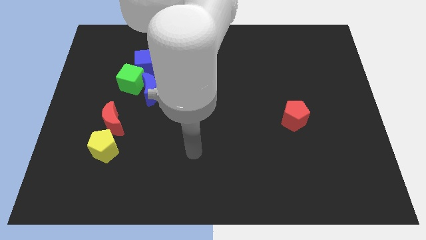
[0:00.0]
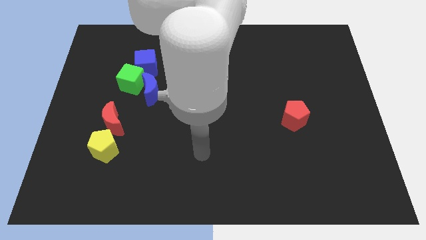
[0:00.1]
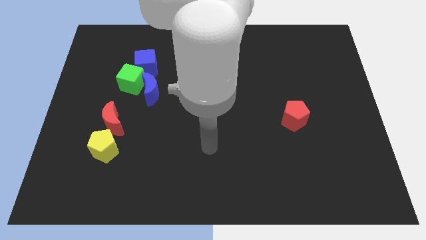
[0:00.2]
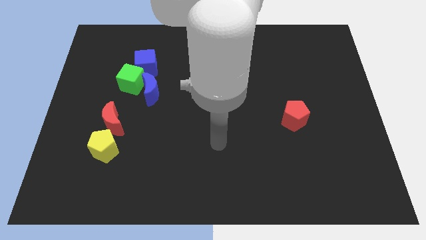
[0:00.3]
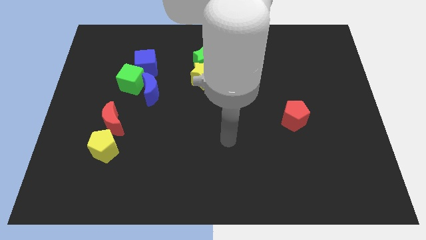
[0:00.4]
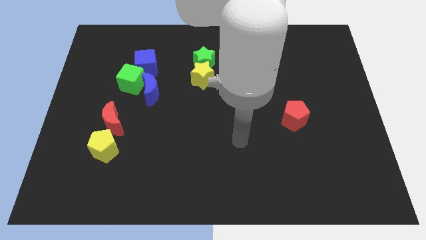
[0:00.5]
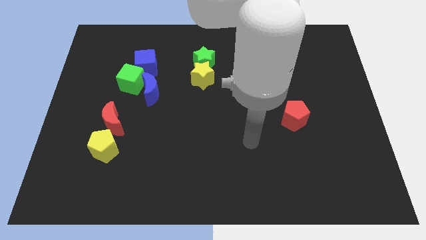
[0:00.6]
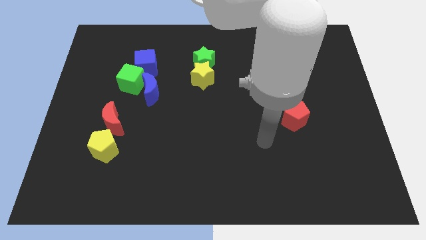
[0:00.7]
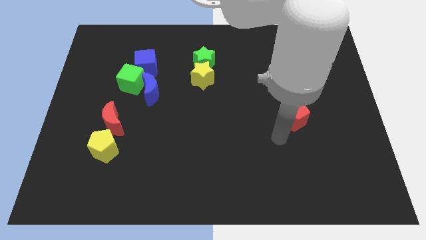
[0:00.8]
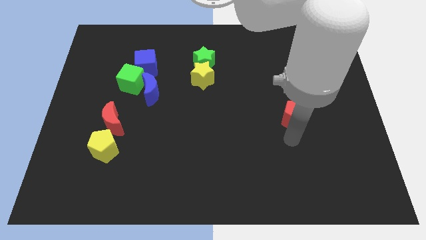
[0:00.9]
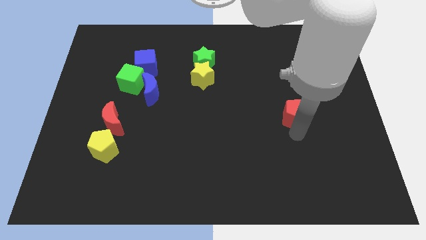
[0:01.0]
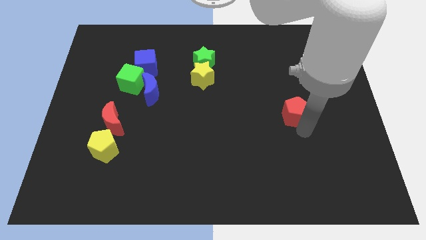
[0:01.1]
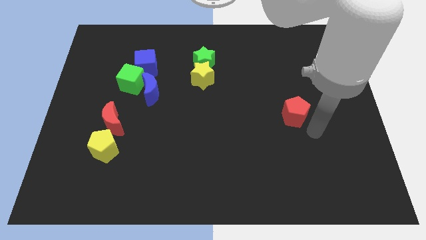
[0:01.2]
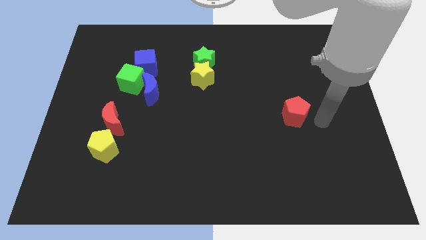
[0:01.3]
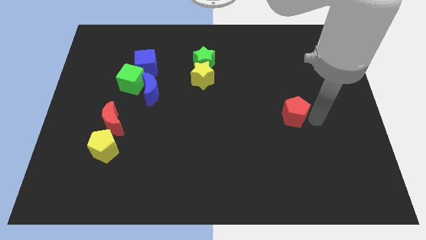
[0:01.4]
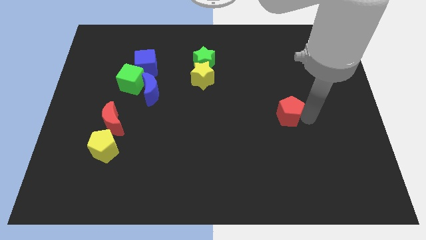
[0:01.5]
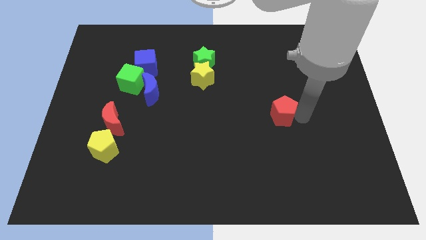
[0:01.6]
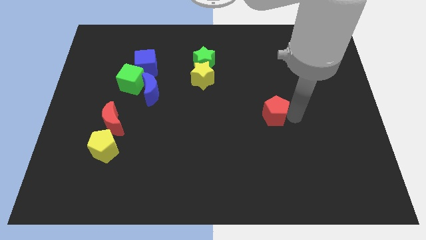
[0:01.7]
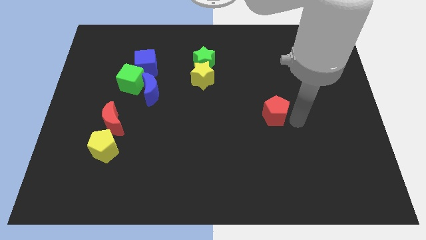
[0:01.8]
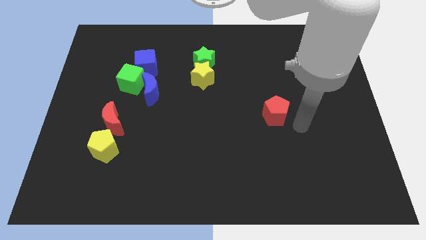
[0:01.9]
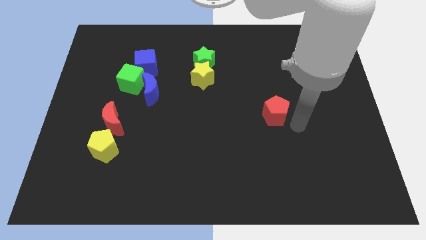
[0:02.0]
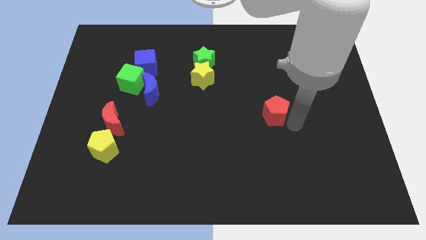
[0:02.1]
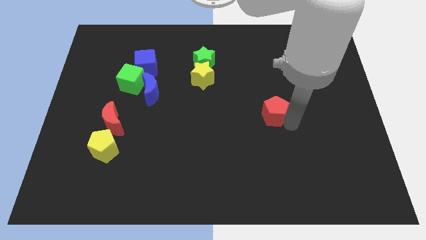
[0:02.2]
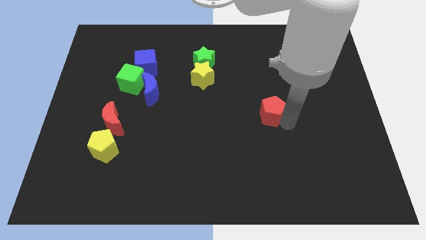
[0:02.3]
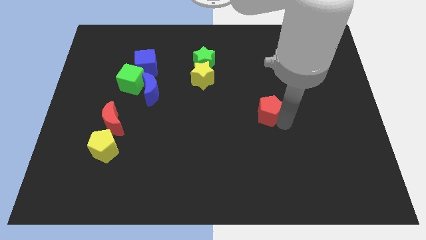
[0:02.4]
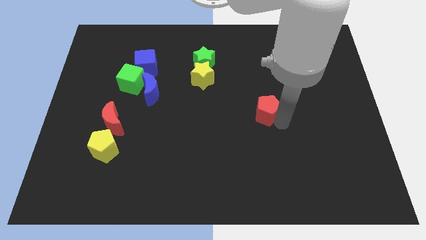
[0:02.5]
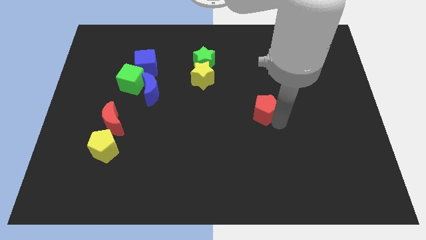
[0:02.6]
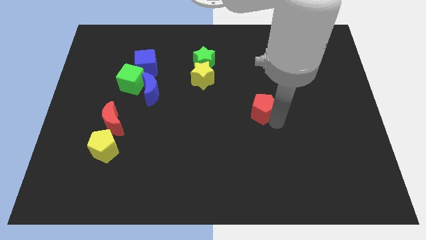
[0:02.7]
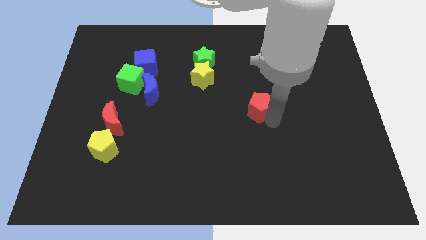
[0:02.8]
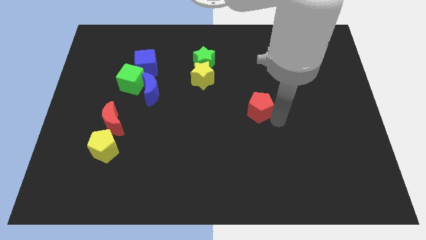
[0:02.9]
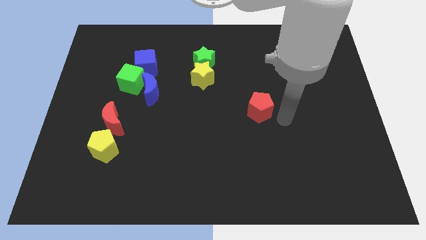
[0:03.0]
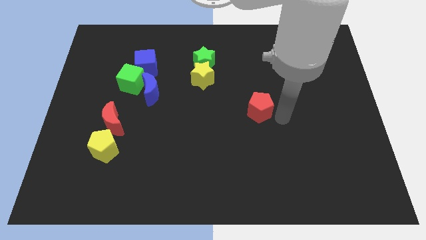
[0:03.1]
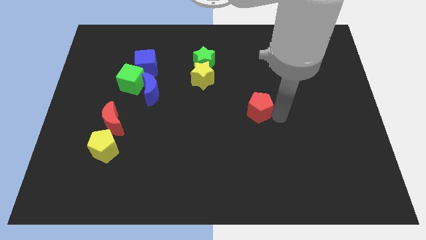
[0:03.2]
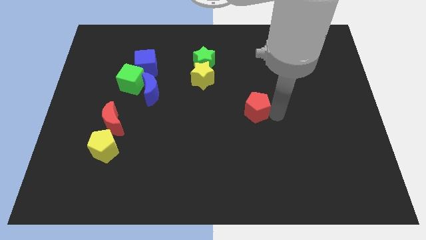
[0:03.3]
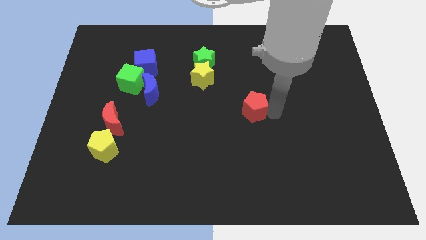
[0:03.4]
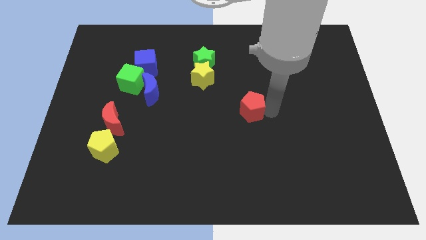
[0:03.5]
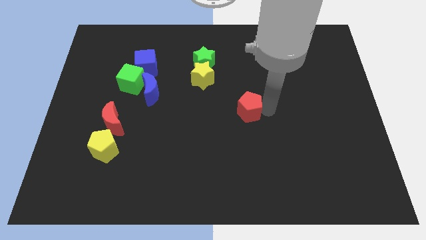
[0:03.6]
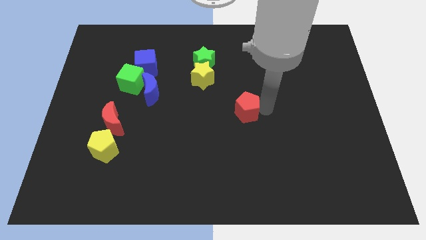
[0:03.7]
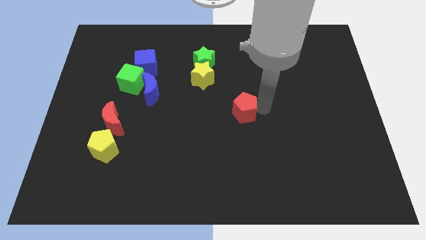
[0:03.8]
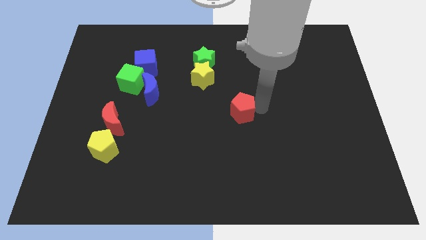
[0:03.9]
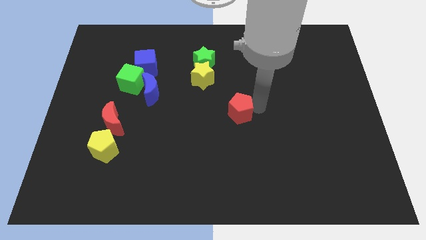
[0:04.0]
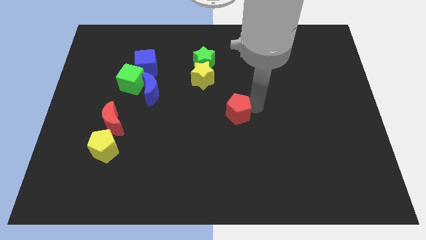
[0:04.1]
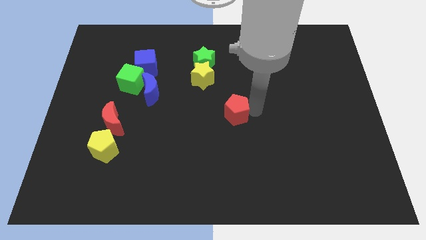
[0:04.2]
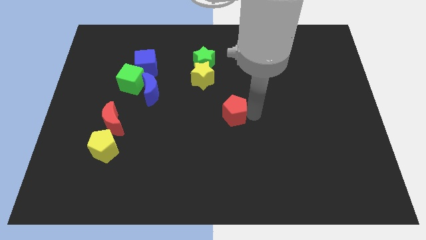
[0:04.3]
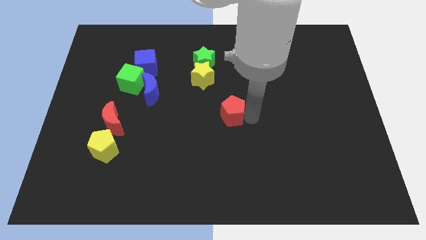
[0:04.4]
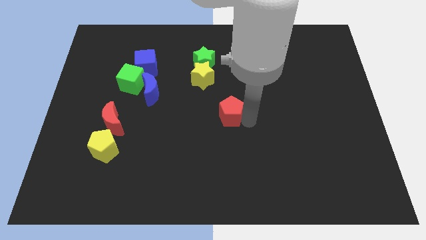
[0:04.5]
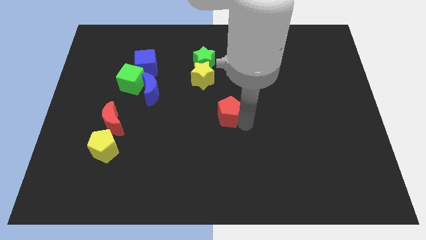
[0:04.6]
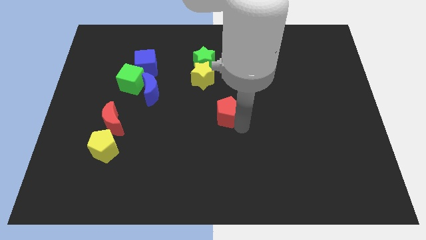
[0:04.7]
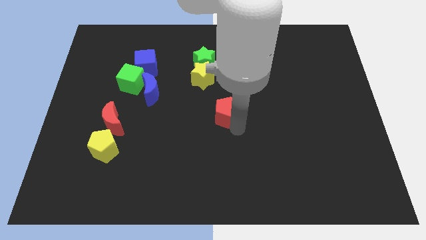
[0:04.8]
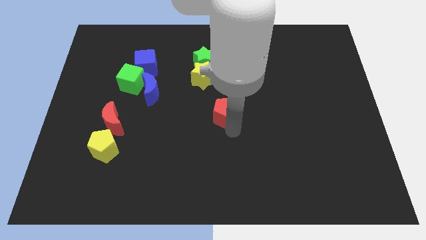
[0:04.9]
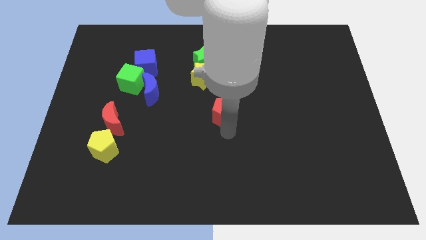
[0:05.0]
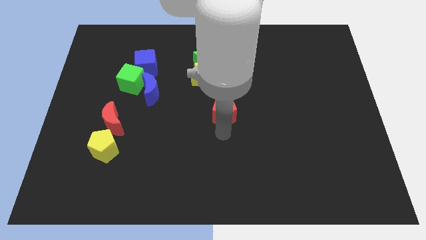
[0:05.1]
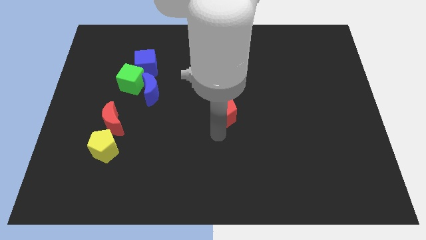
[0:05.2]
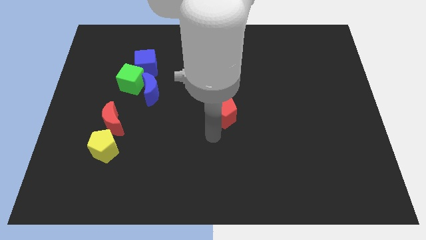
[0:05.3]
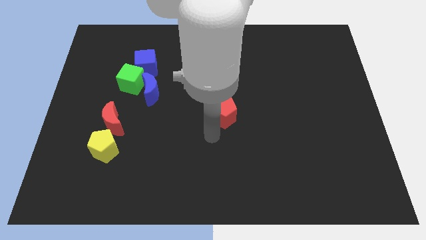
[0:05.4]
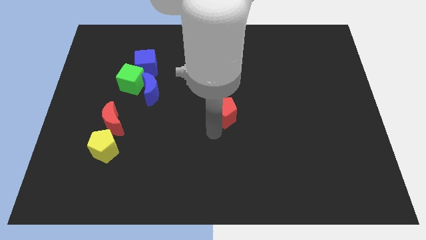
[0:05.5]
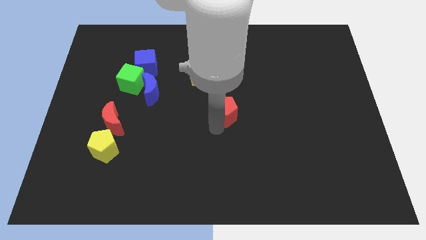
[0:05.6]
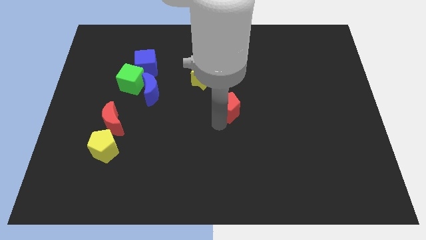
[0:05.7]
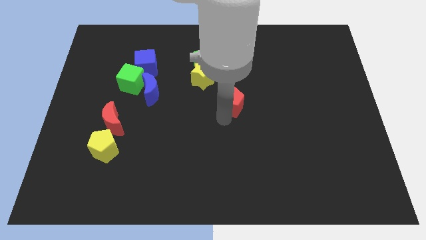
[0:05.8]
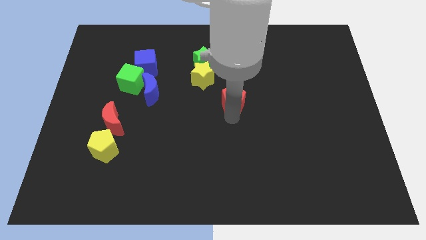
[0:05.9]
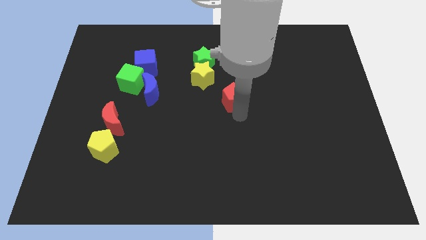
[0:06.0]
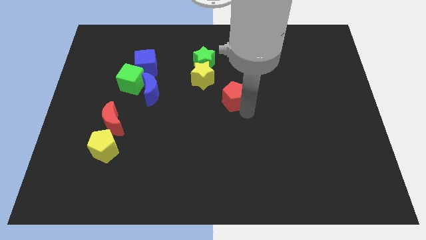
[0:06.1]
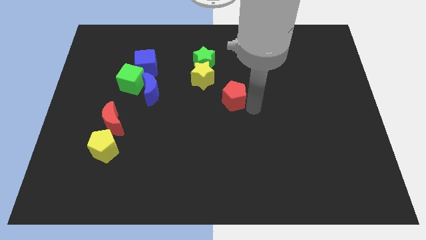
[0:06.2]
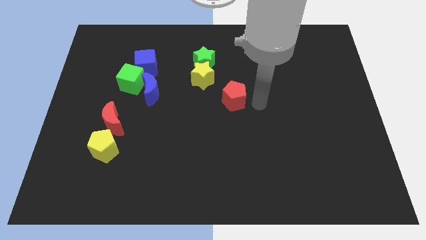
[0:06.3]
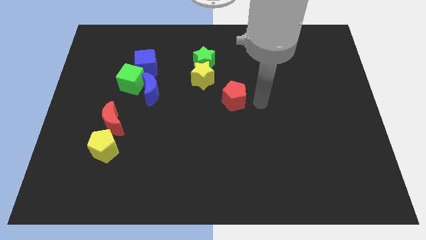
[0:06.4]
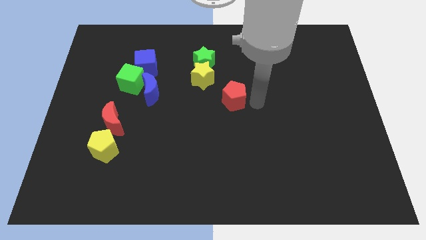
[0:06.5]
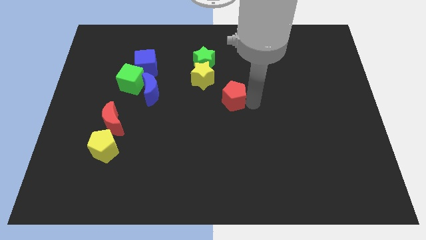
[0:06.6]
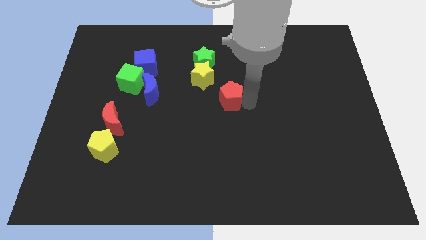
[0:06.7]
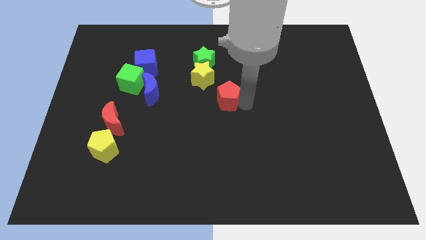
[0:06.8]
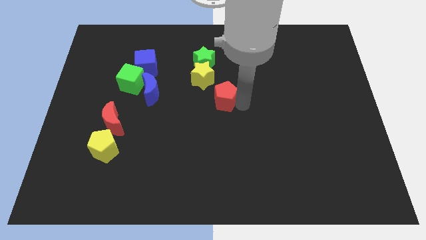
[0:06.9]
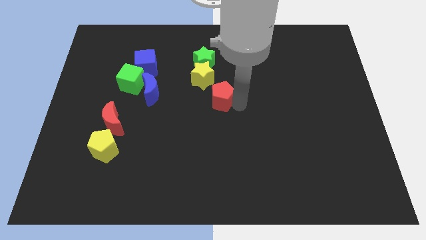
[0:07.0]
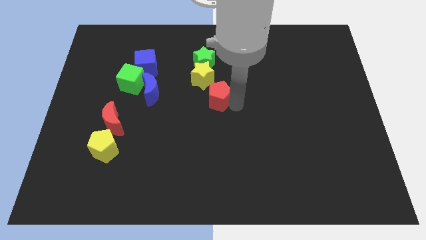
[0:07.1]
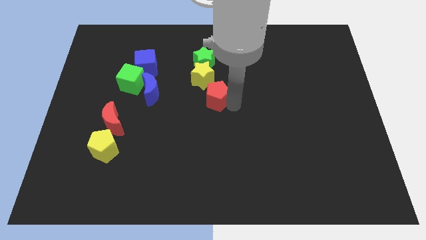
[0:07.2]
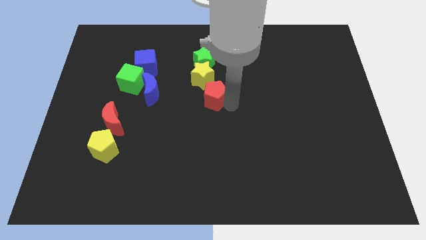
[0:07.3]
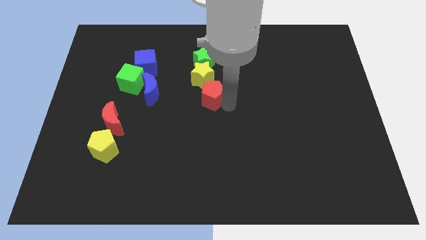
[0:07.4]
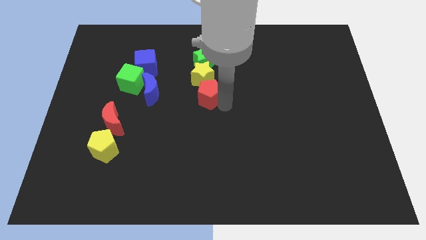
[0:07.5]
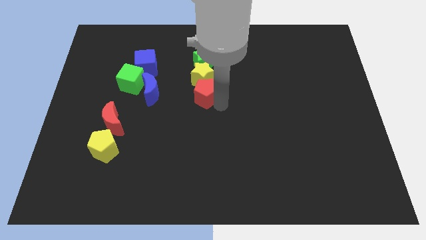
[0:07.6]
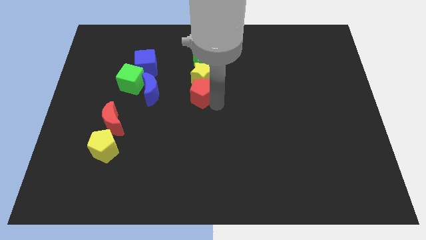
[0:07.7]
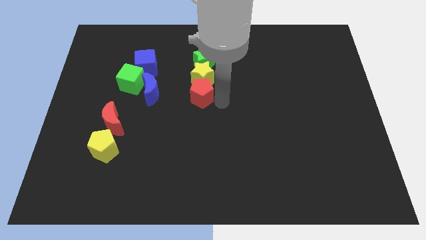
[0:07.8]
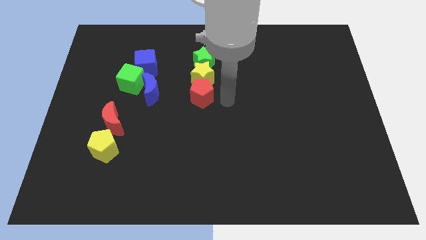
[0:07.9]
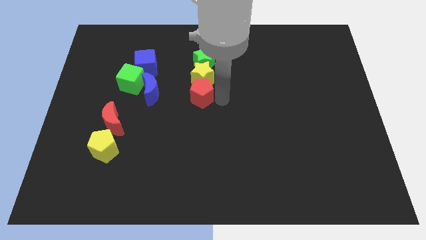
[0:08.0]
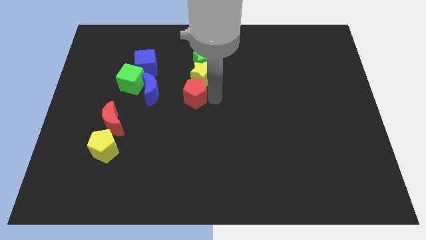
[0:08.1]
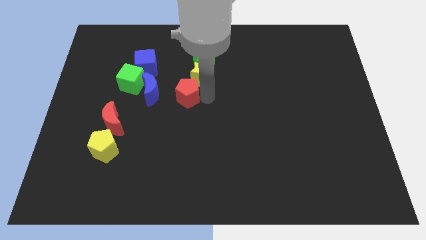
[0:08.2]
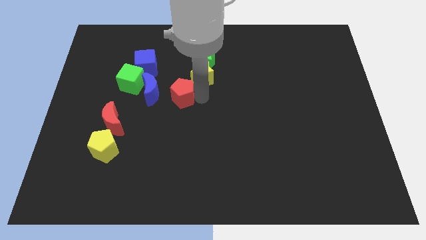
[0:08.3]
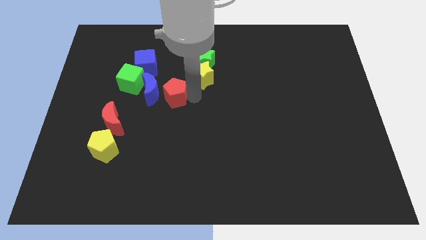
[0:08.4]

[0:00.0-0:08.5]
put the red pentagon towards the blue moon
